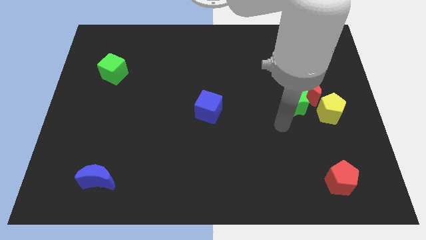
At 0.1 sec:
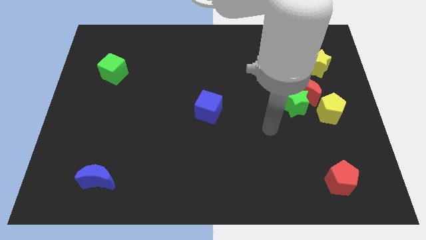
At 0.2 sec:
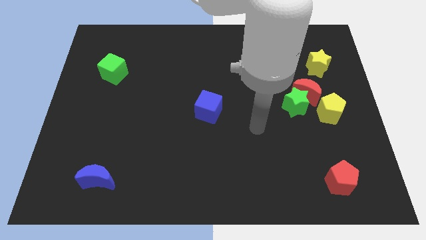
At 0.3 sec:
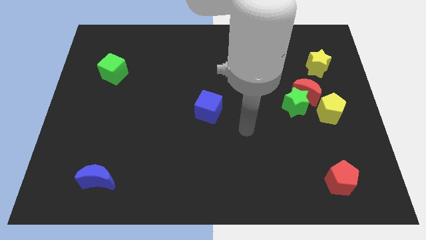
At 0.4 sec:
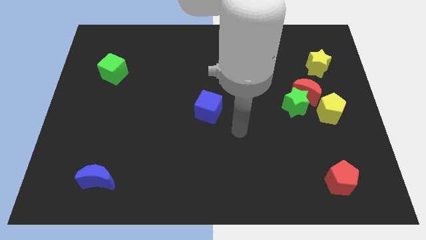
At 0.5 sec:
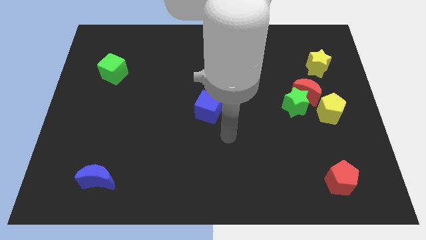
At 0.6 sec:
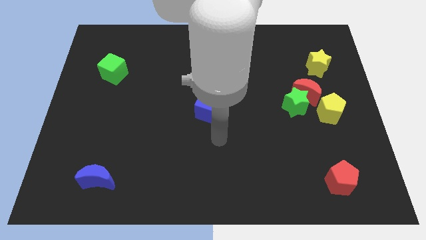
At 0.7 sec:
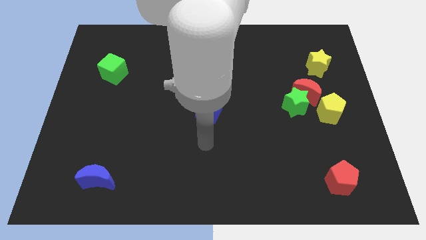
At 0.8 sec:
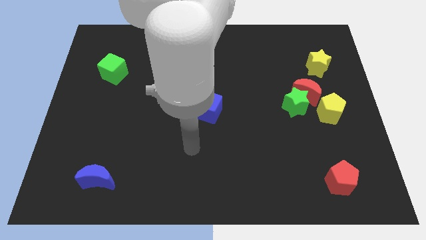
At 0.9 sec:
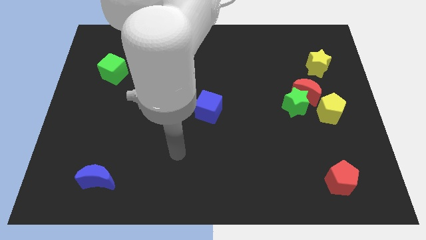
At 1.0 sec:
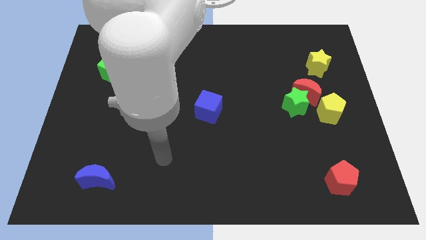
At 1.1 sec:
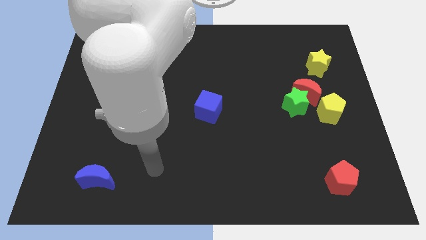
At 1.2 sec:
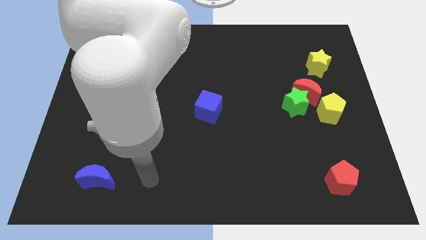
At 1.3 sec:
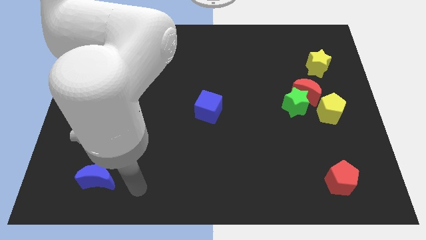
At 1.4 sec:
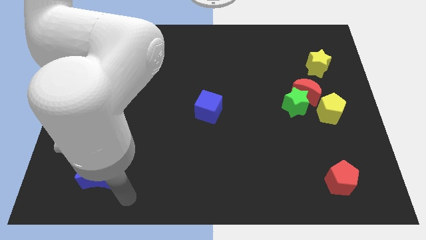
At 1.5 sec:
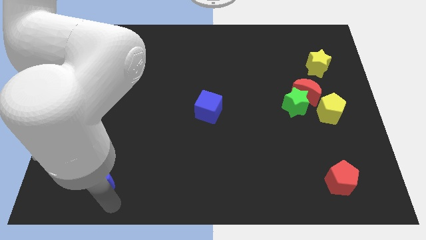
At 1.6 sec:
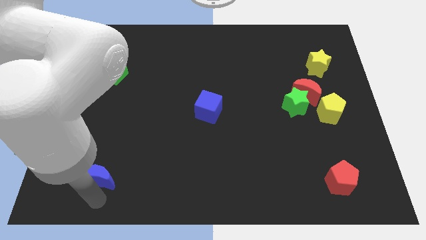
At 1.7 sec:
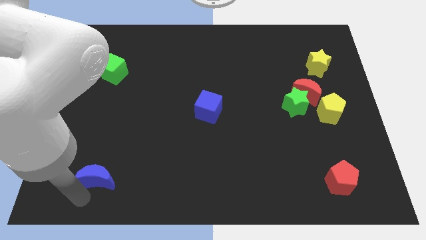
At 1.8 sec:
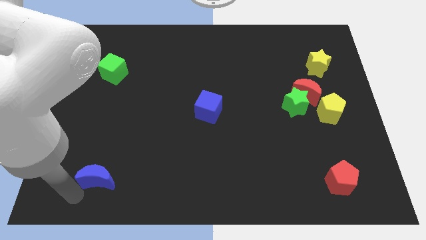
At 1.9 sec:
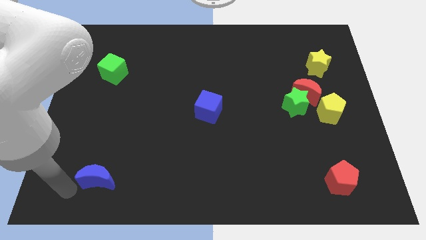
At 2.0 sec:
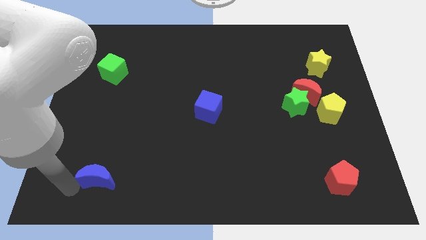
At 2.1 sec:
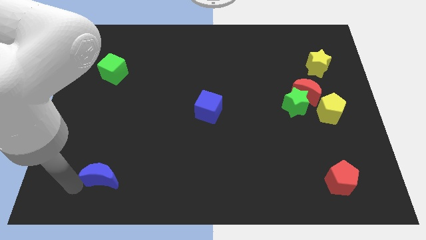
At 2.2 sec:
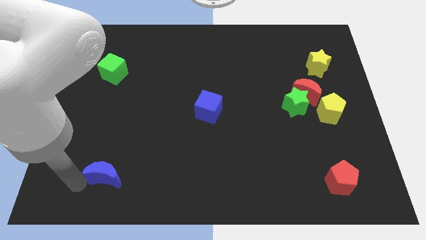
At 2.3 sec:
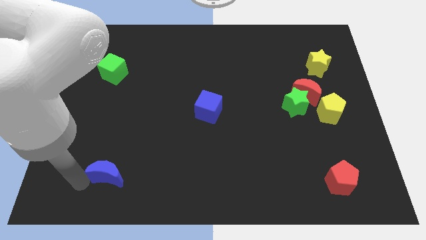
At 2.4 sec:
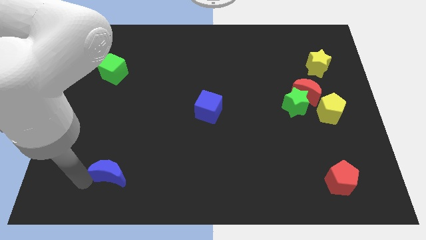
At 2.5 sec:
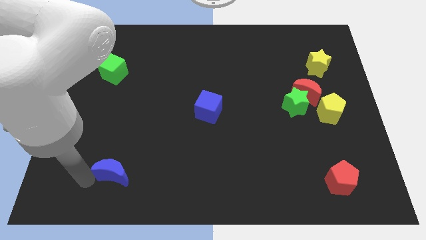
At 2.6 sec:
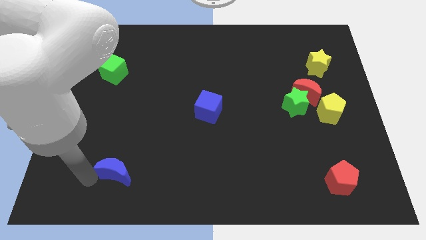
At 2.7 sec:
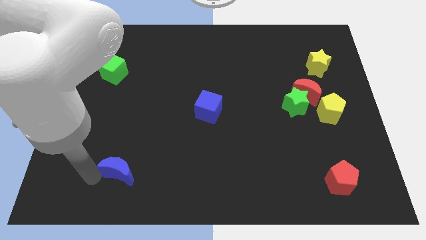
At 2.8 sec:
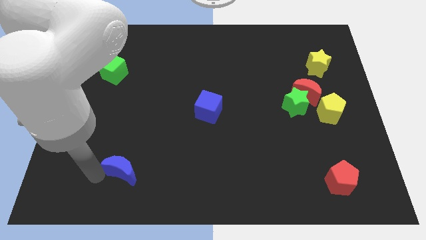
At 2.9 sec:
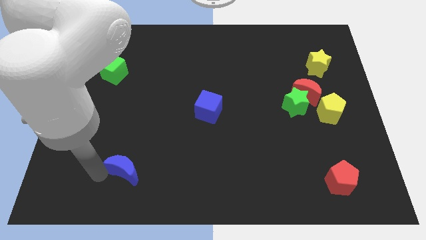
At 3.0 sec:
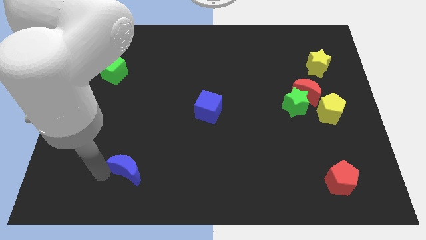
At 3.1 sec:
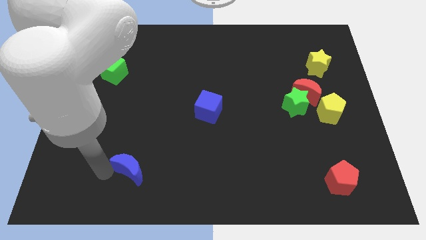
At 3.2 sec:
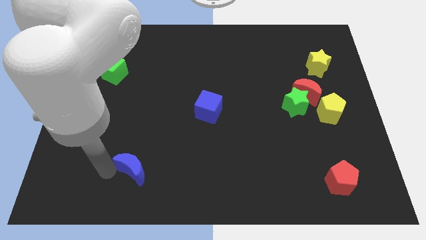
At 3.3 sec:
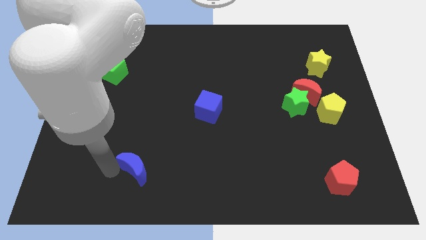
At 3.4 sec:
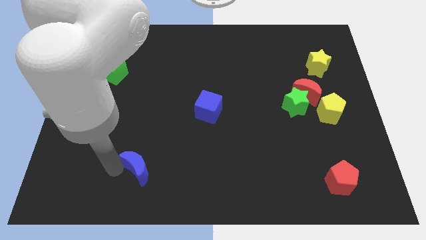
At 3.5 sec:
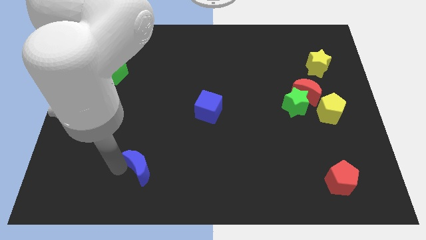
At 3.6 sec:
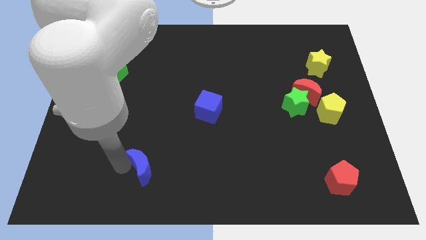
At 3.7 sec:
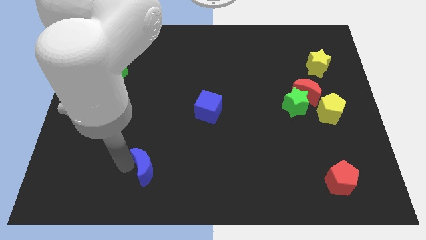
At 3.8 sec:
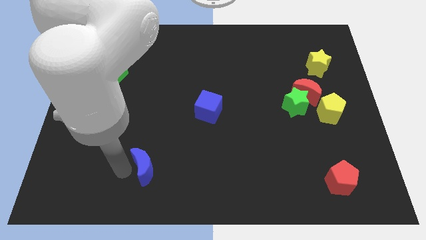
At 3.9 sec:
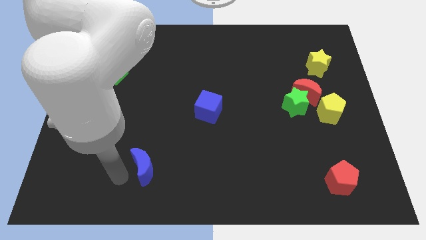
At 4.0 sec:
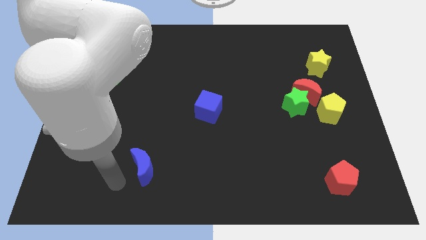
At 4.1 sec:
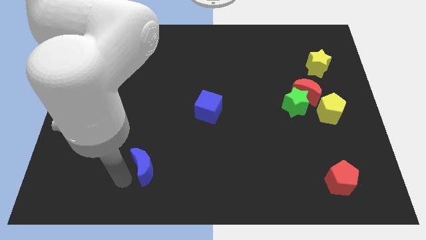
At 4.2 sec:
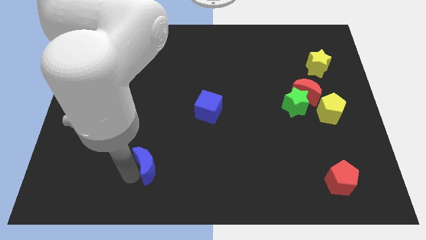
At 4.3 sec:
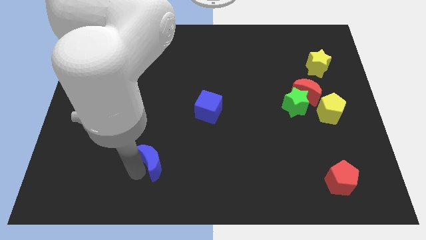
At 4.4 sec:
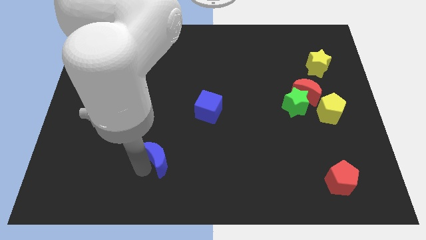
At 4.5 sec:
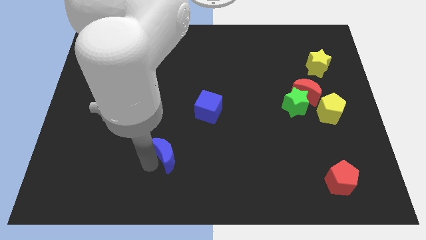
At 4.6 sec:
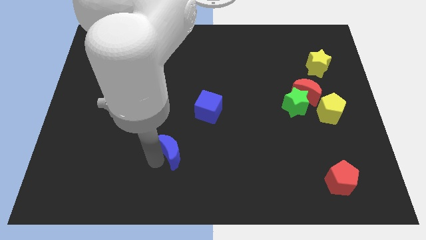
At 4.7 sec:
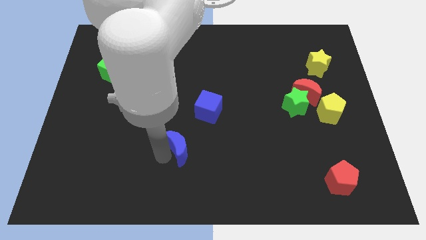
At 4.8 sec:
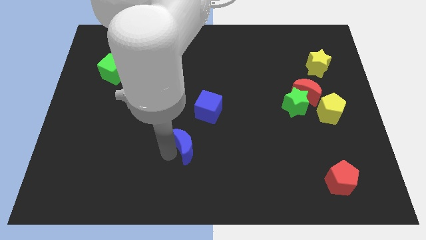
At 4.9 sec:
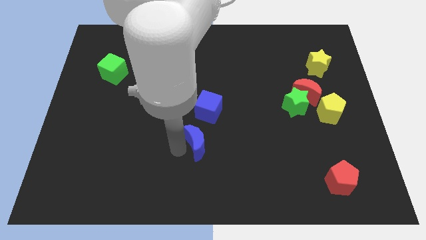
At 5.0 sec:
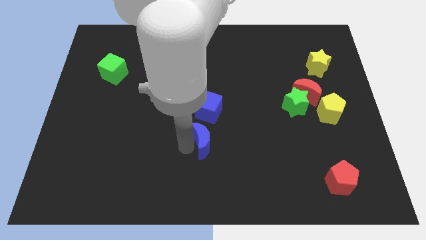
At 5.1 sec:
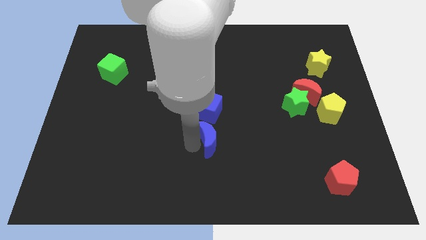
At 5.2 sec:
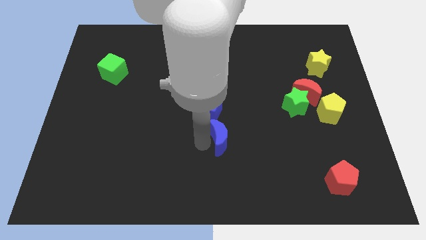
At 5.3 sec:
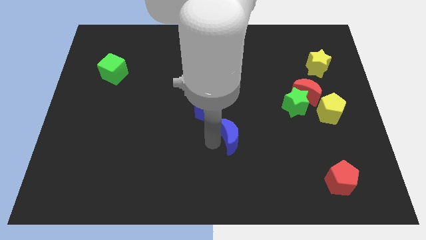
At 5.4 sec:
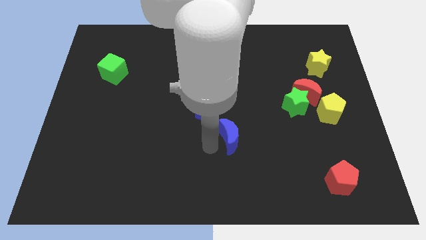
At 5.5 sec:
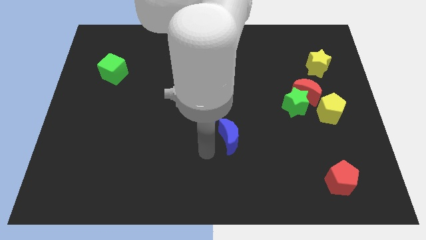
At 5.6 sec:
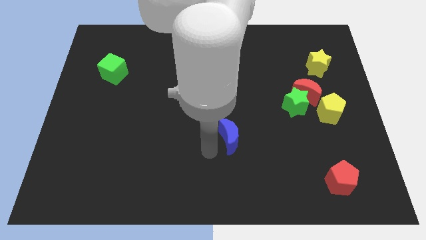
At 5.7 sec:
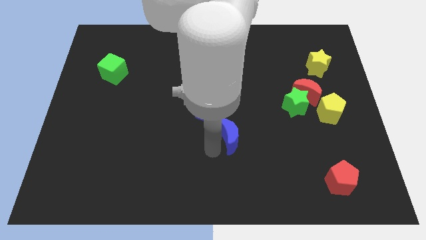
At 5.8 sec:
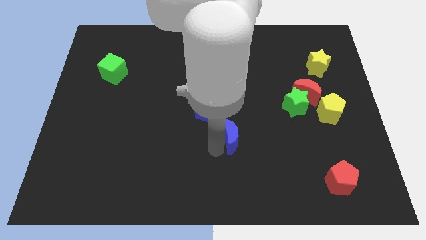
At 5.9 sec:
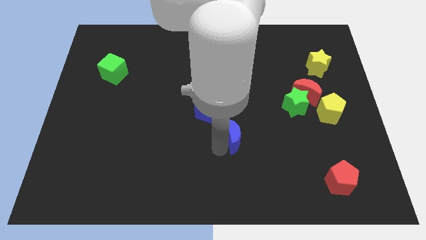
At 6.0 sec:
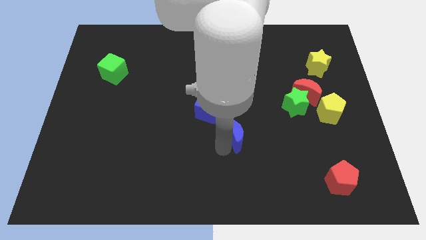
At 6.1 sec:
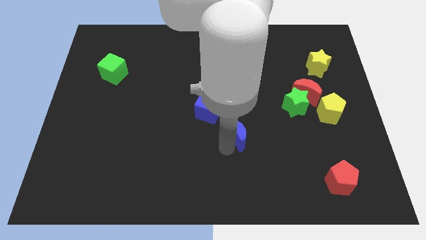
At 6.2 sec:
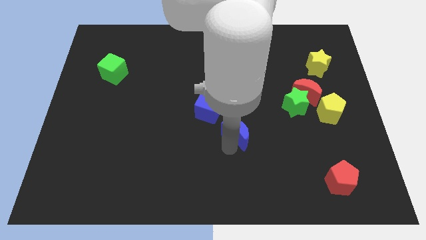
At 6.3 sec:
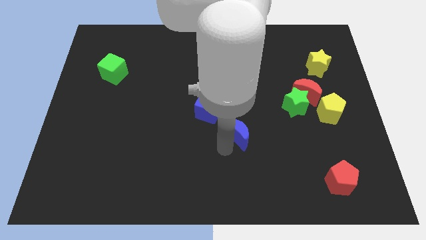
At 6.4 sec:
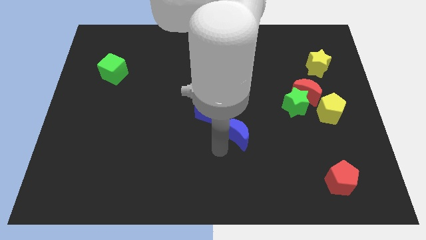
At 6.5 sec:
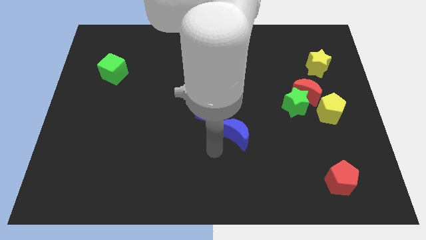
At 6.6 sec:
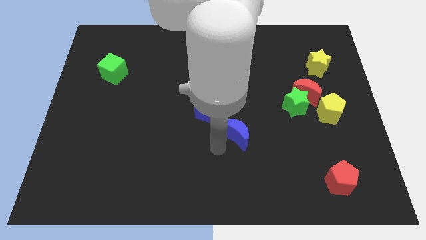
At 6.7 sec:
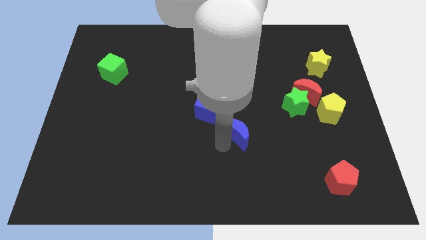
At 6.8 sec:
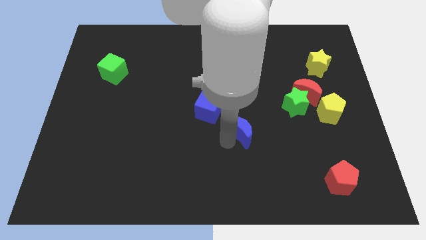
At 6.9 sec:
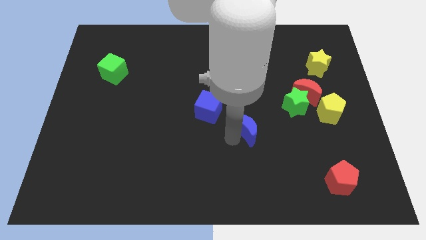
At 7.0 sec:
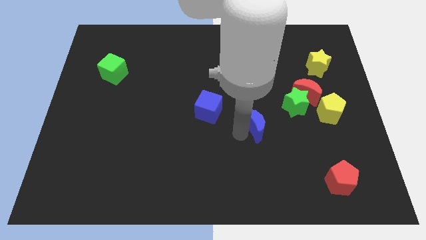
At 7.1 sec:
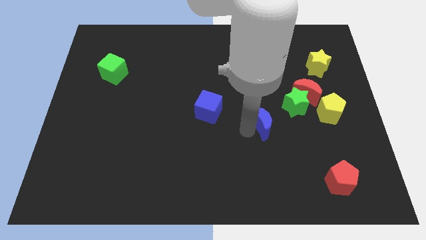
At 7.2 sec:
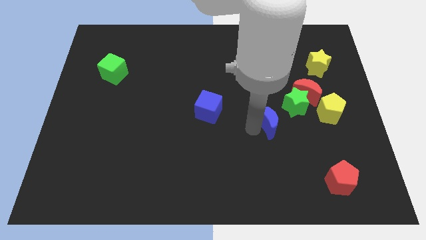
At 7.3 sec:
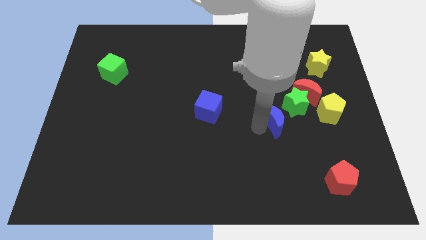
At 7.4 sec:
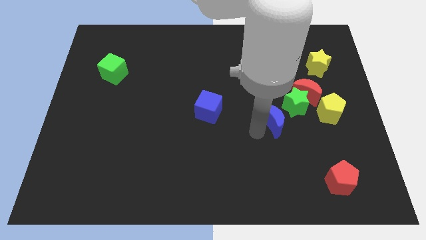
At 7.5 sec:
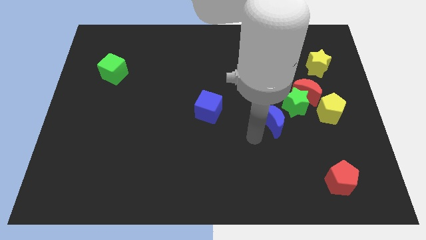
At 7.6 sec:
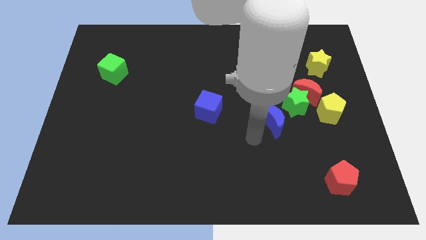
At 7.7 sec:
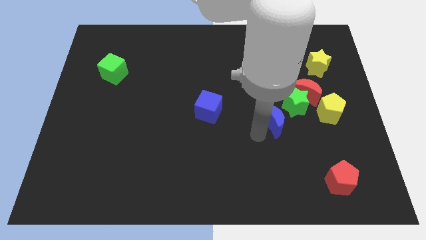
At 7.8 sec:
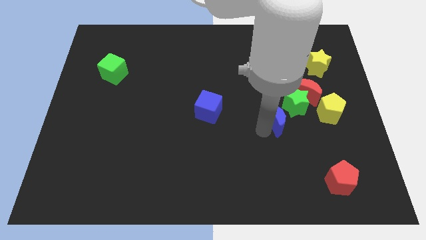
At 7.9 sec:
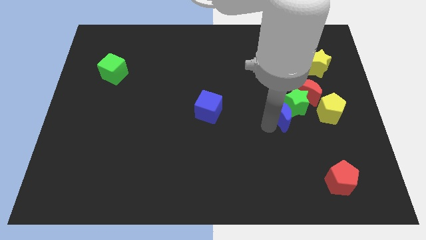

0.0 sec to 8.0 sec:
slide the blue moon close to the green star
